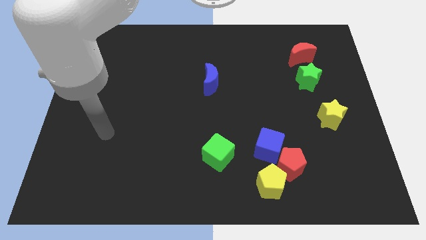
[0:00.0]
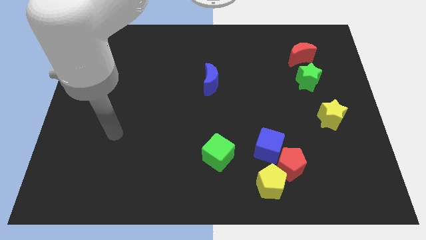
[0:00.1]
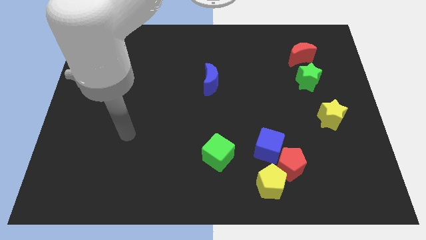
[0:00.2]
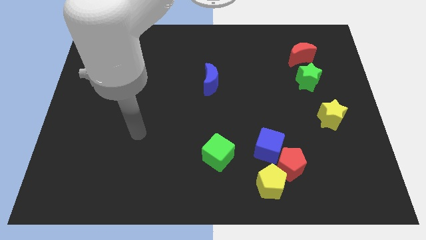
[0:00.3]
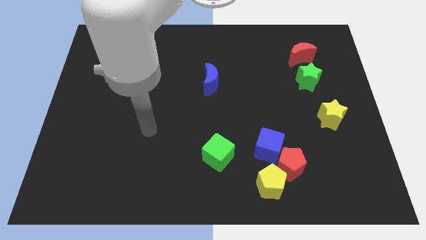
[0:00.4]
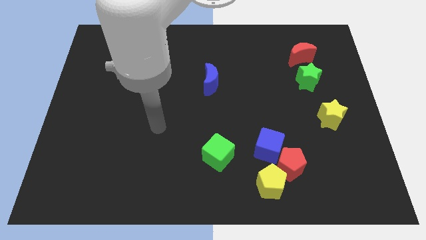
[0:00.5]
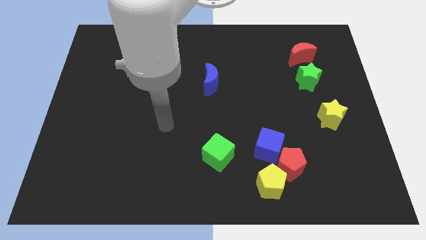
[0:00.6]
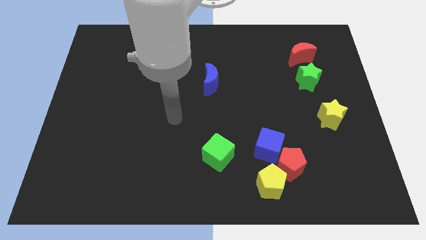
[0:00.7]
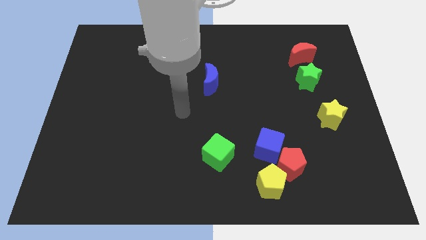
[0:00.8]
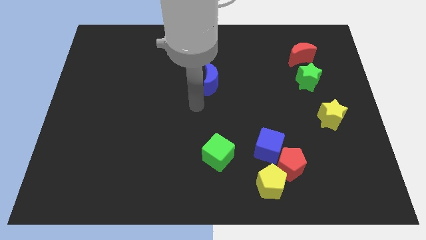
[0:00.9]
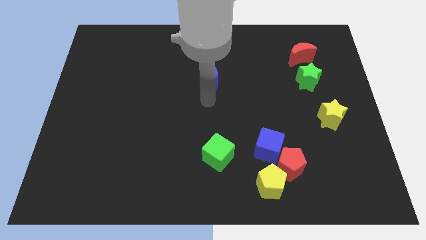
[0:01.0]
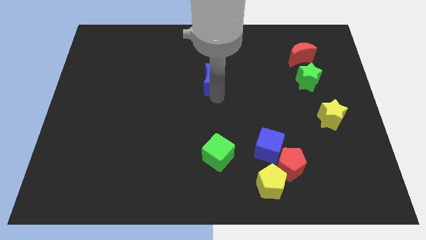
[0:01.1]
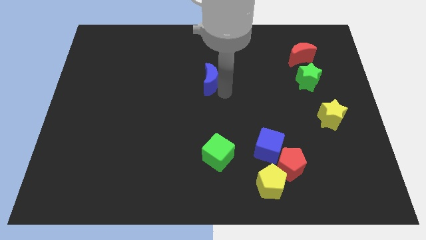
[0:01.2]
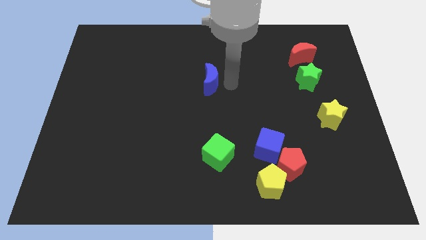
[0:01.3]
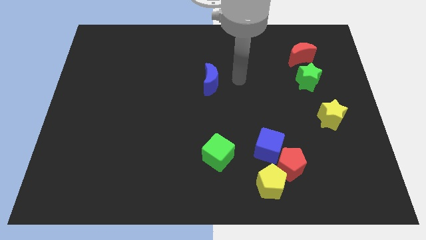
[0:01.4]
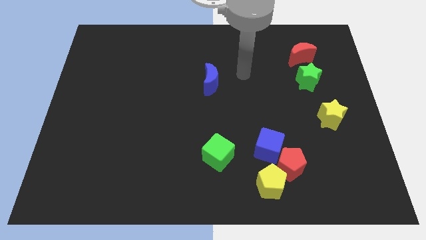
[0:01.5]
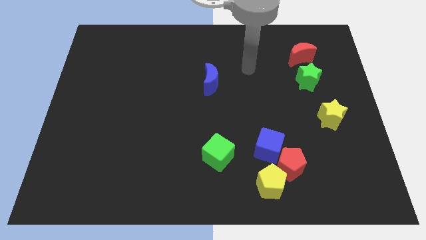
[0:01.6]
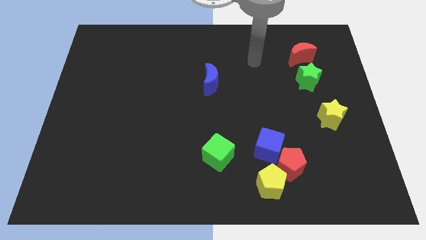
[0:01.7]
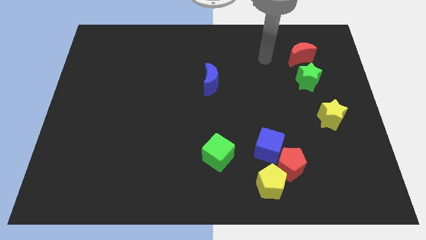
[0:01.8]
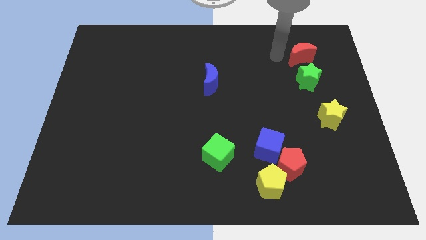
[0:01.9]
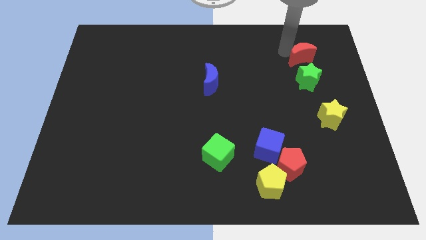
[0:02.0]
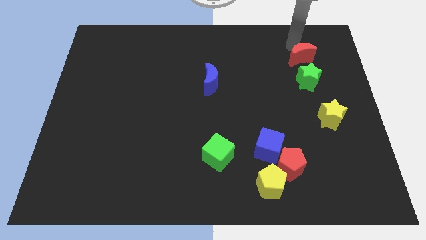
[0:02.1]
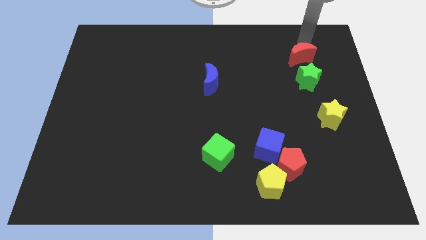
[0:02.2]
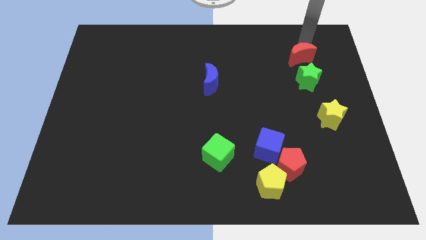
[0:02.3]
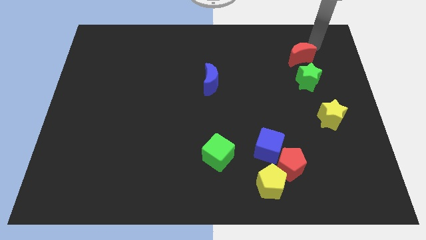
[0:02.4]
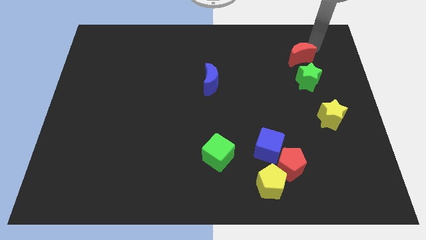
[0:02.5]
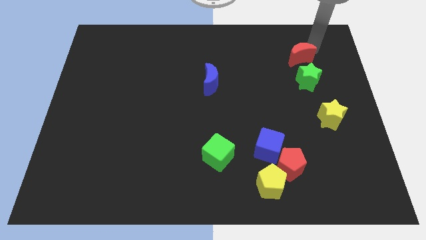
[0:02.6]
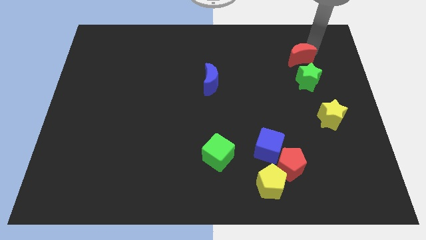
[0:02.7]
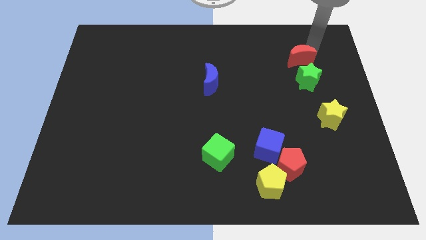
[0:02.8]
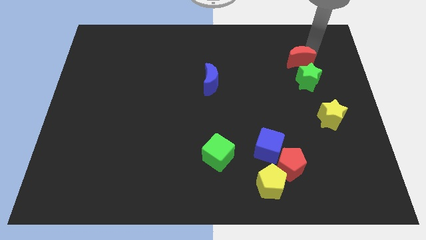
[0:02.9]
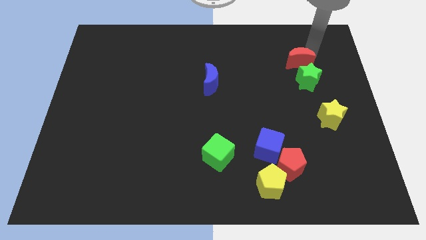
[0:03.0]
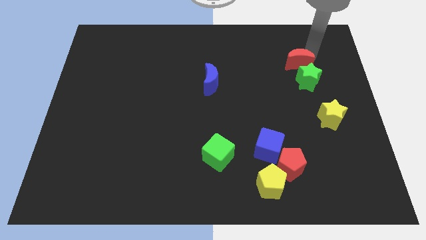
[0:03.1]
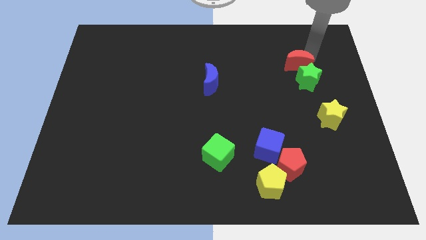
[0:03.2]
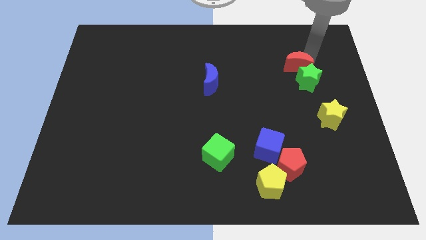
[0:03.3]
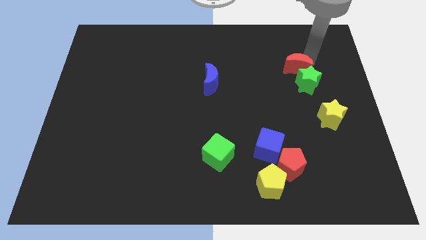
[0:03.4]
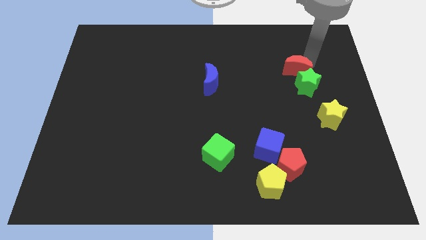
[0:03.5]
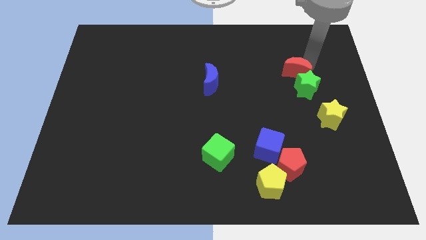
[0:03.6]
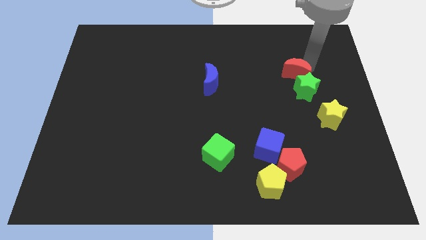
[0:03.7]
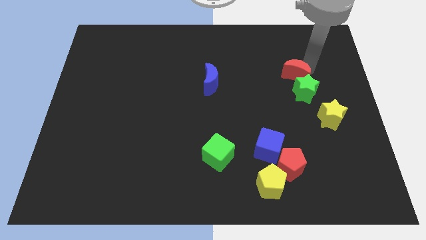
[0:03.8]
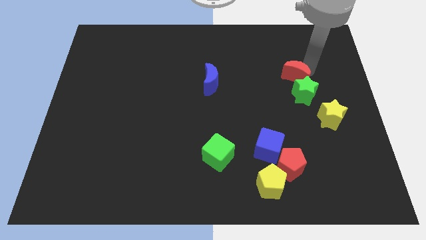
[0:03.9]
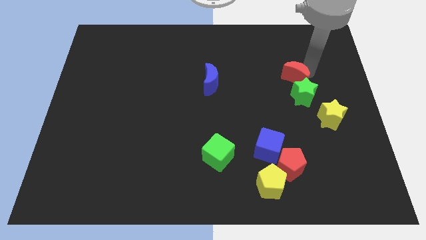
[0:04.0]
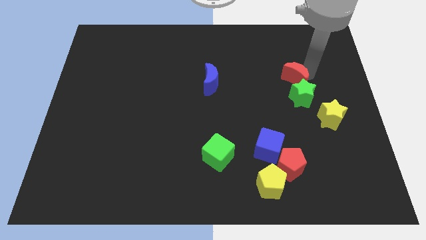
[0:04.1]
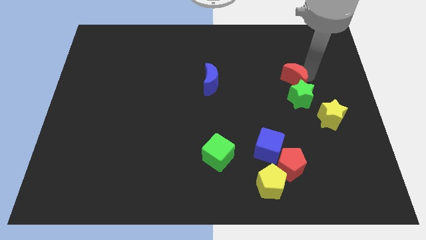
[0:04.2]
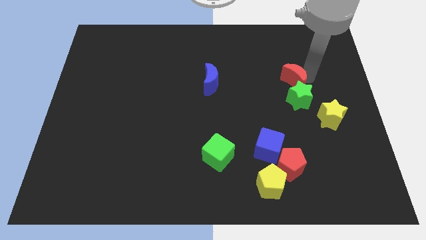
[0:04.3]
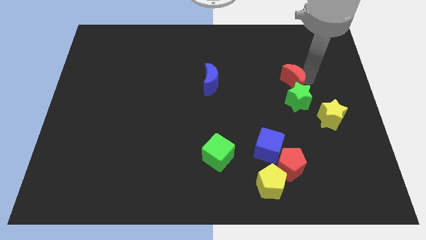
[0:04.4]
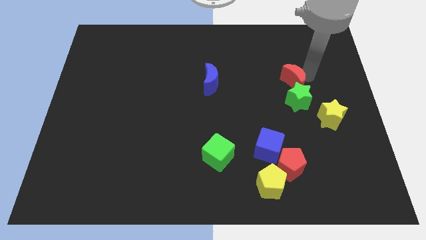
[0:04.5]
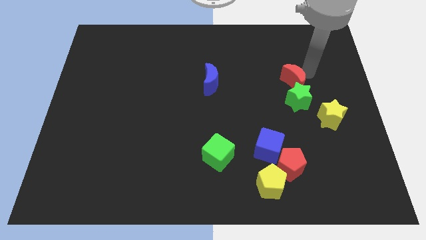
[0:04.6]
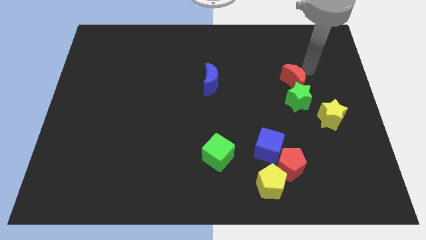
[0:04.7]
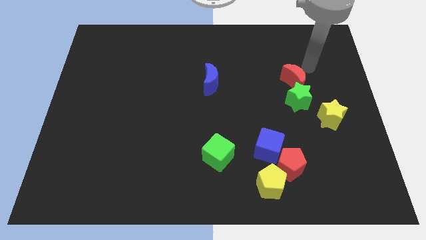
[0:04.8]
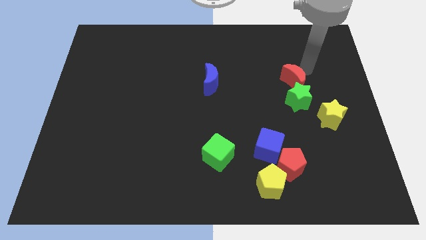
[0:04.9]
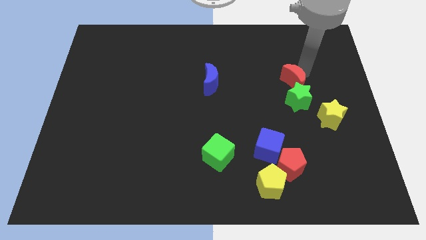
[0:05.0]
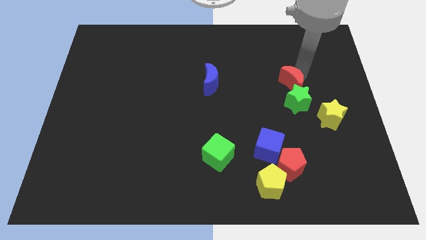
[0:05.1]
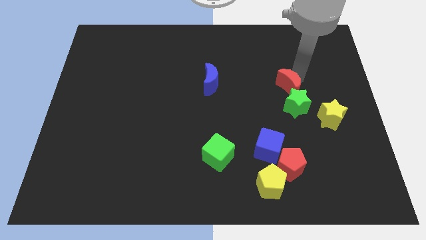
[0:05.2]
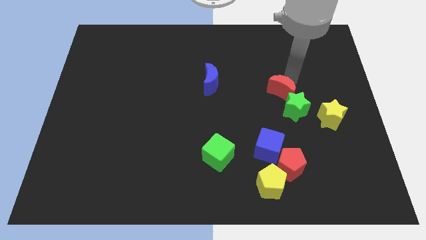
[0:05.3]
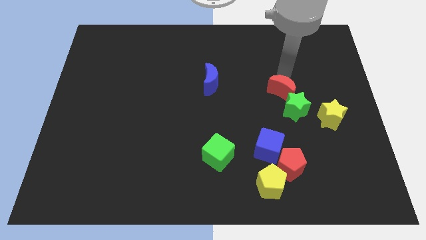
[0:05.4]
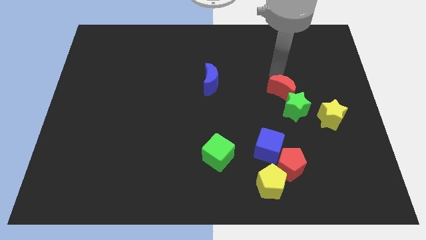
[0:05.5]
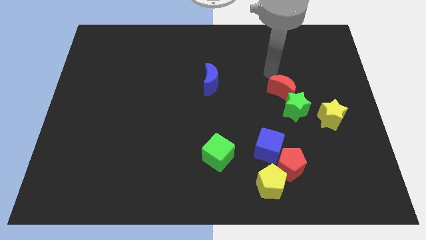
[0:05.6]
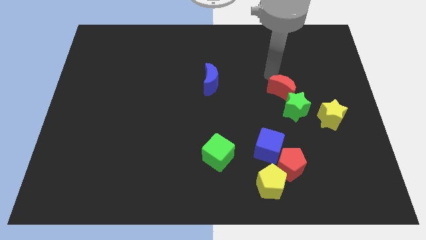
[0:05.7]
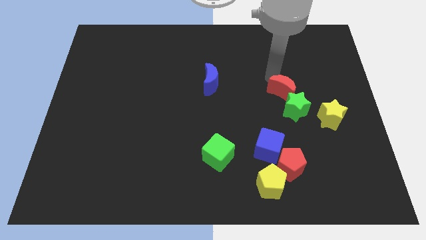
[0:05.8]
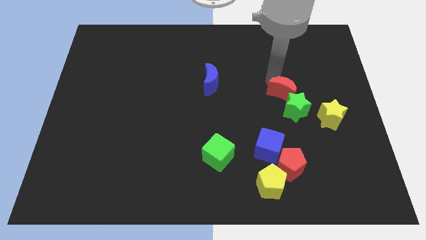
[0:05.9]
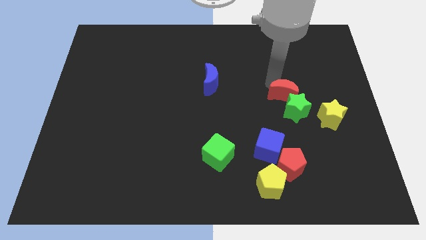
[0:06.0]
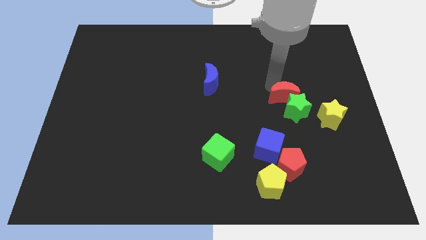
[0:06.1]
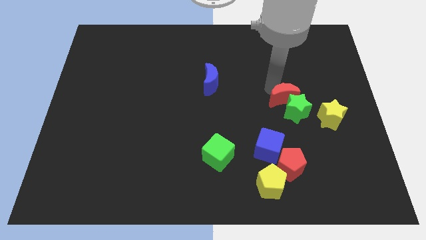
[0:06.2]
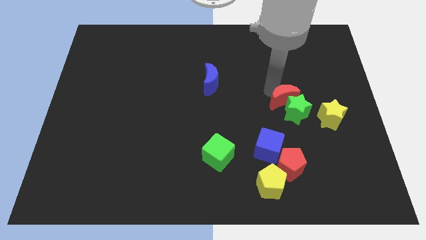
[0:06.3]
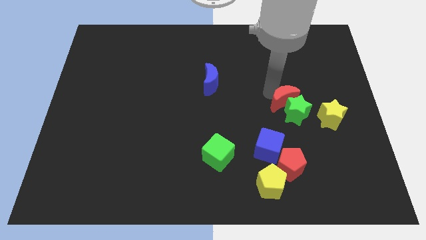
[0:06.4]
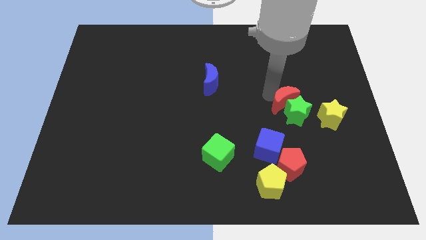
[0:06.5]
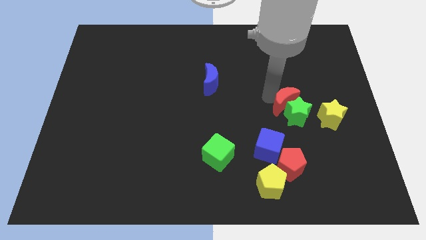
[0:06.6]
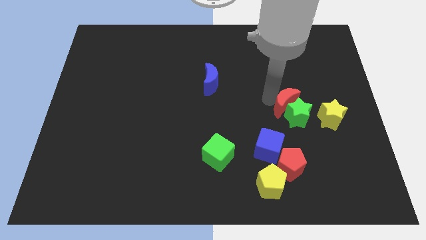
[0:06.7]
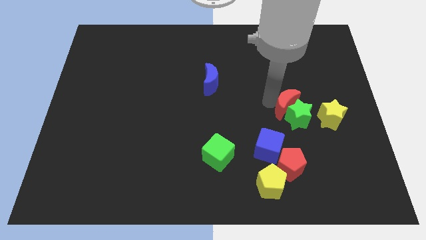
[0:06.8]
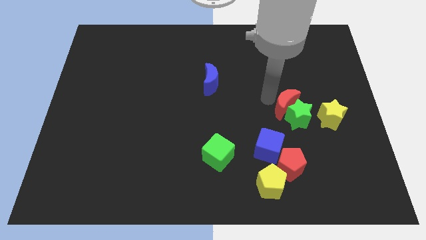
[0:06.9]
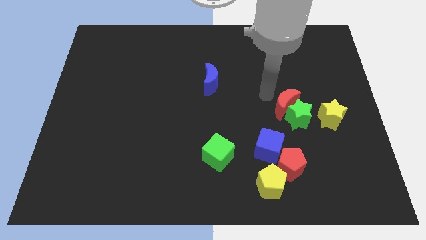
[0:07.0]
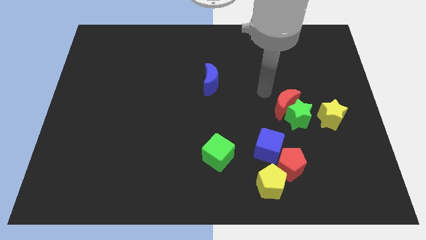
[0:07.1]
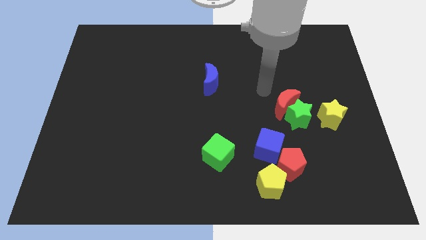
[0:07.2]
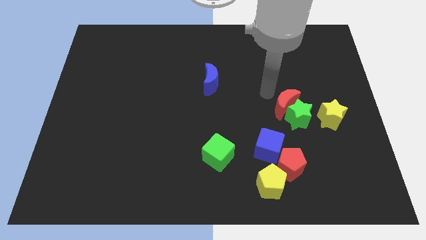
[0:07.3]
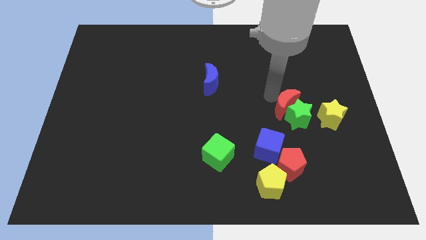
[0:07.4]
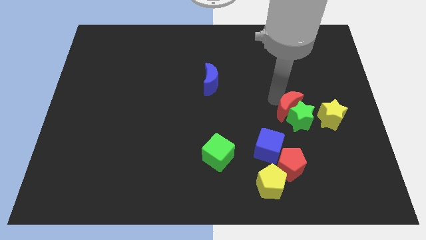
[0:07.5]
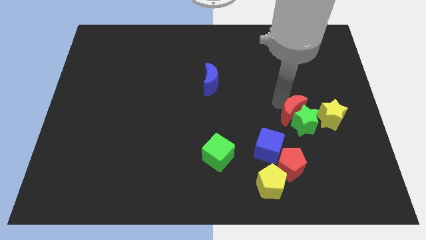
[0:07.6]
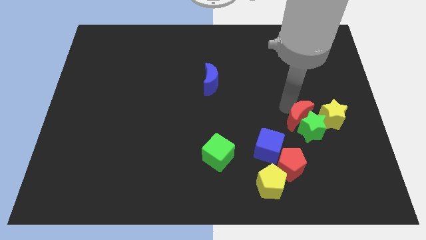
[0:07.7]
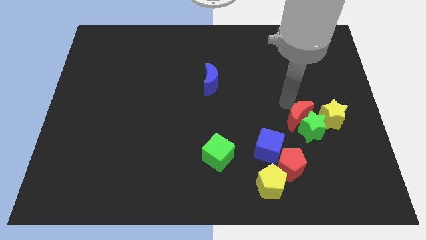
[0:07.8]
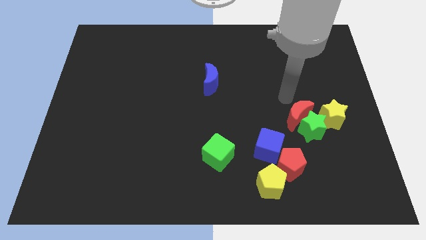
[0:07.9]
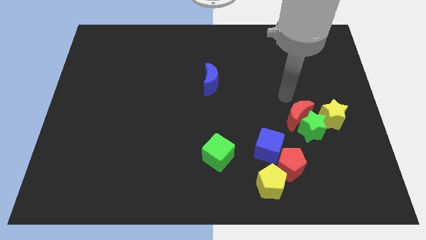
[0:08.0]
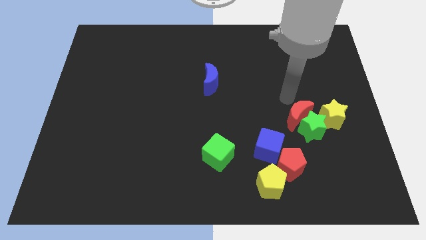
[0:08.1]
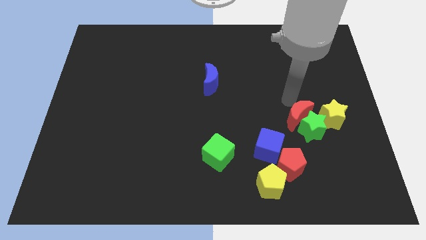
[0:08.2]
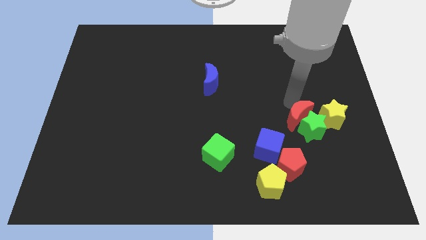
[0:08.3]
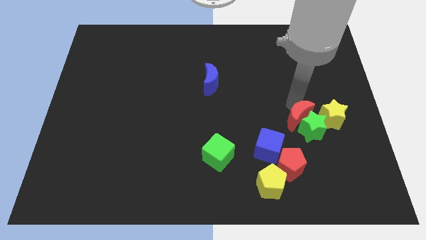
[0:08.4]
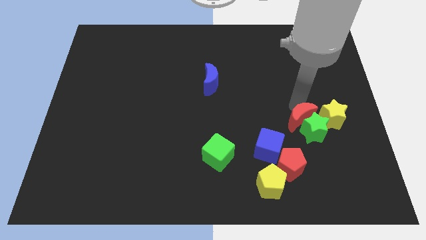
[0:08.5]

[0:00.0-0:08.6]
slide the red moon downwards
